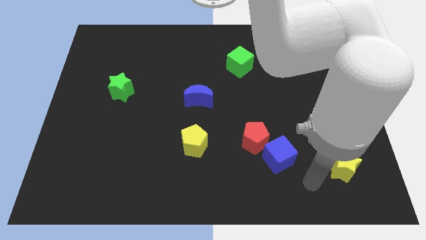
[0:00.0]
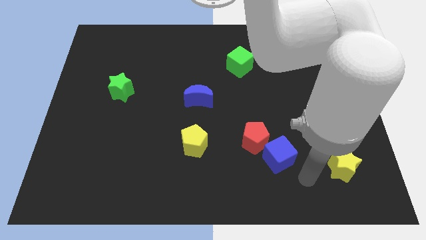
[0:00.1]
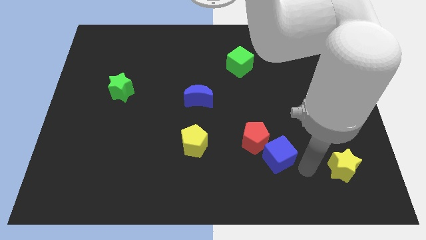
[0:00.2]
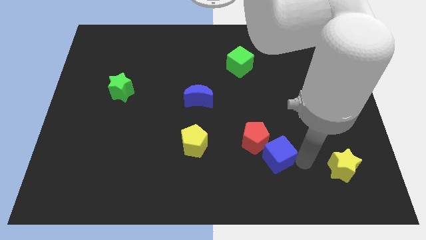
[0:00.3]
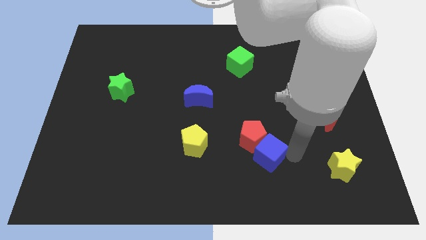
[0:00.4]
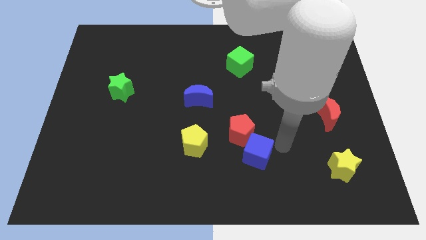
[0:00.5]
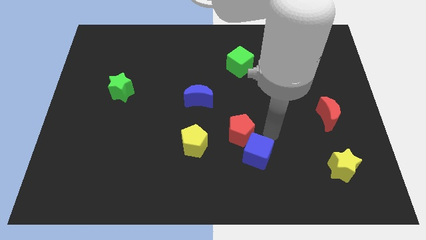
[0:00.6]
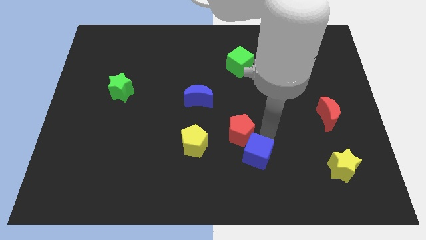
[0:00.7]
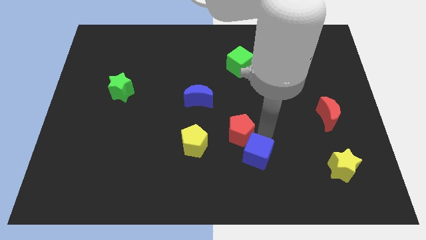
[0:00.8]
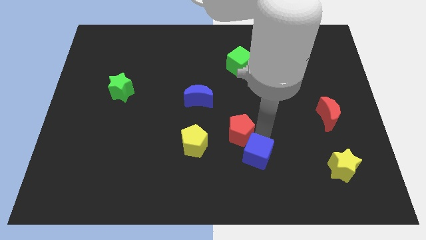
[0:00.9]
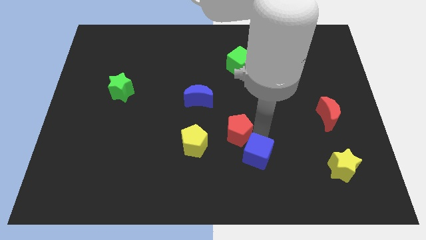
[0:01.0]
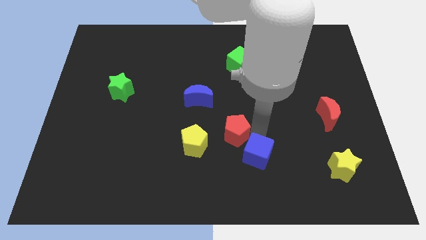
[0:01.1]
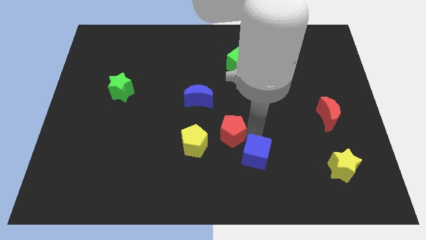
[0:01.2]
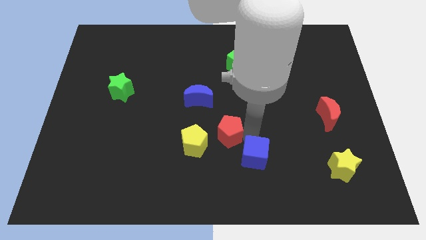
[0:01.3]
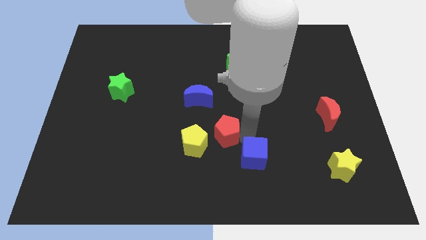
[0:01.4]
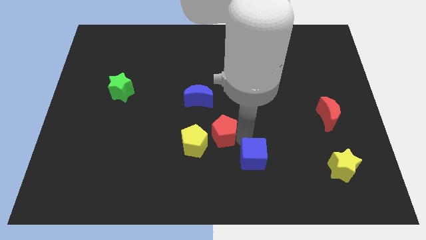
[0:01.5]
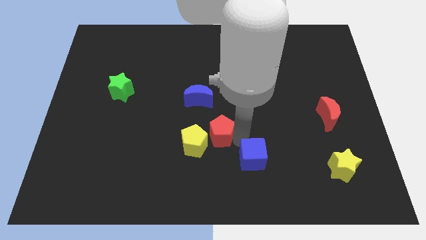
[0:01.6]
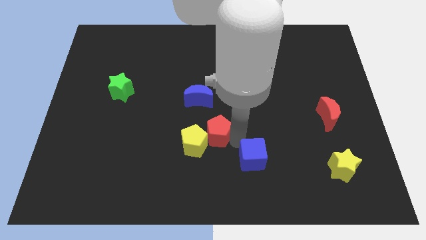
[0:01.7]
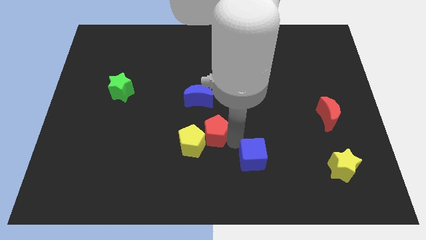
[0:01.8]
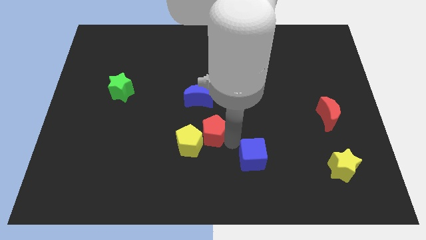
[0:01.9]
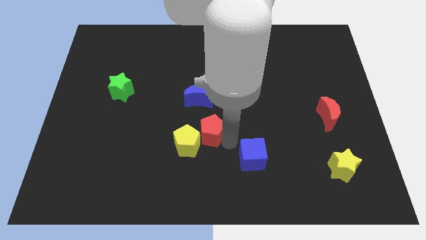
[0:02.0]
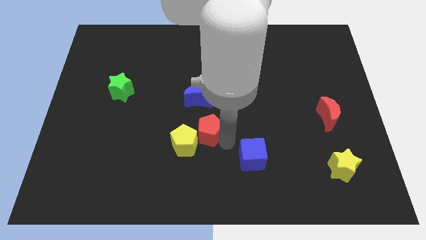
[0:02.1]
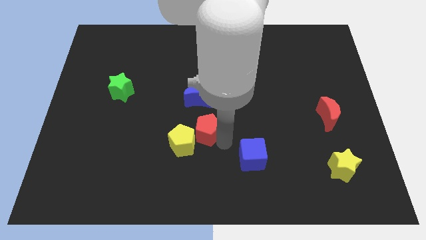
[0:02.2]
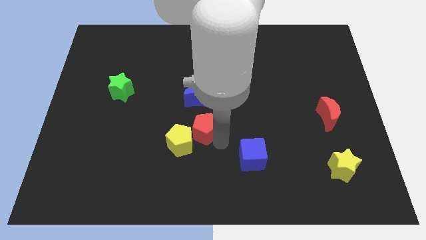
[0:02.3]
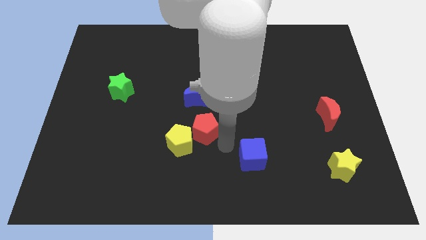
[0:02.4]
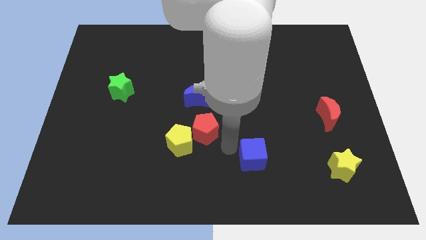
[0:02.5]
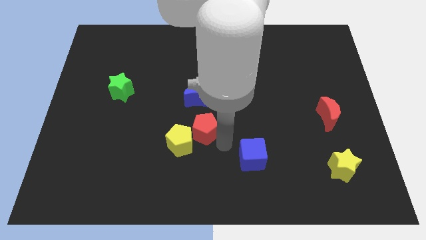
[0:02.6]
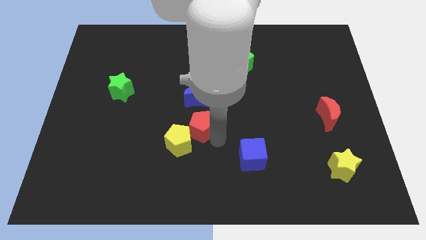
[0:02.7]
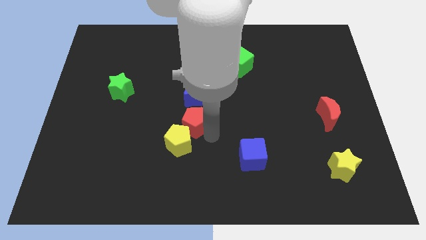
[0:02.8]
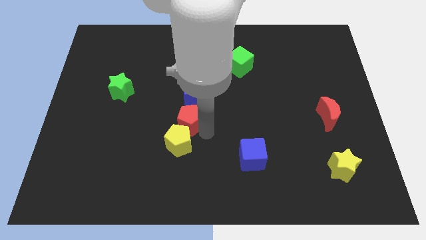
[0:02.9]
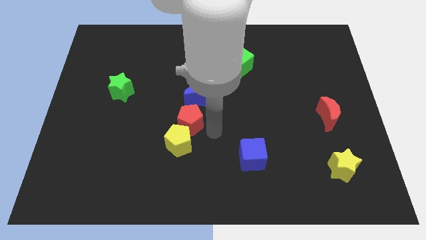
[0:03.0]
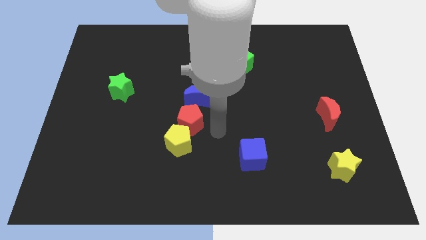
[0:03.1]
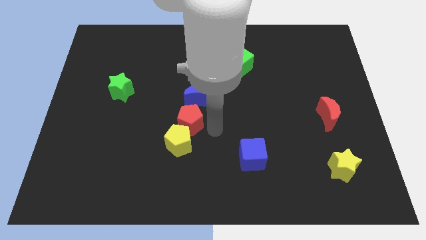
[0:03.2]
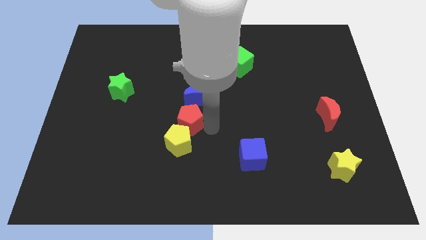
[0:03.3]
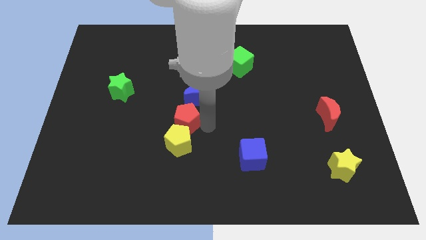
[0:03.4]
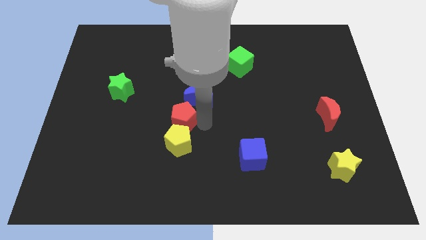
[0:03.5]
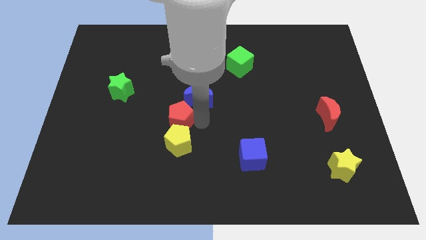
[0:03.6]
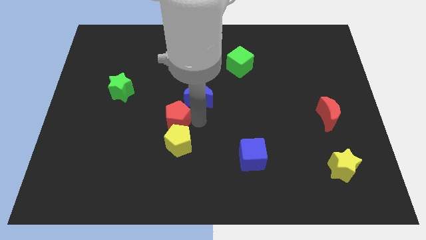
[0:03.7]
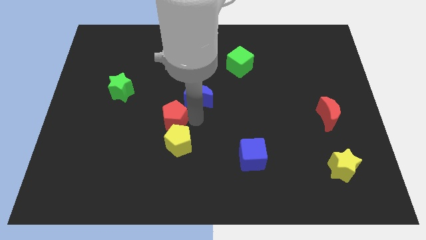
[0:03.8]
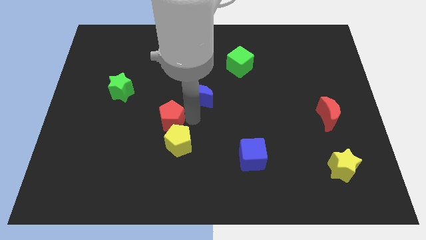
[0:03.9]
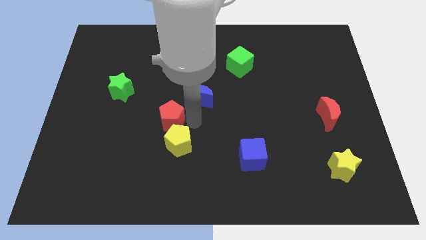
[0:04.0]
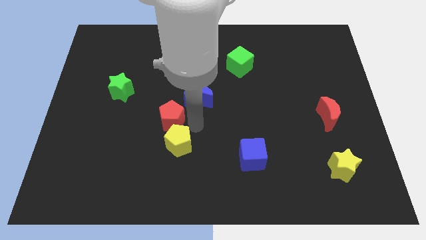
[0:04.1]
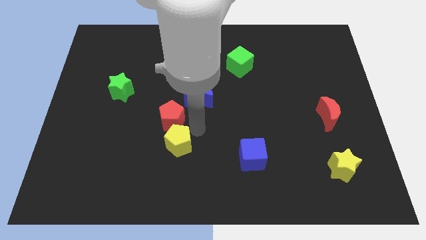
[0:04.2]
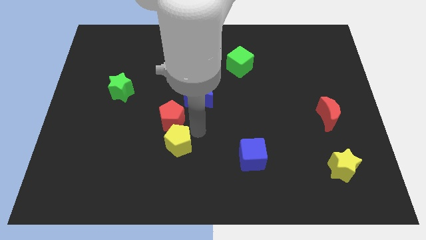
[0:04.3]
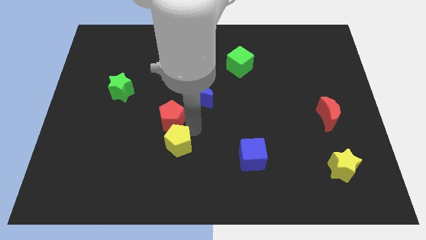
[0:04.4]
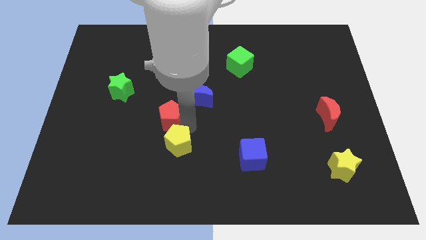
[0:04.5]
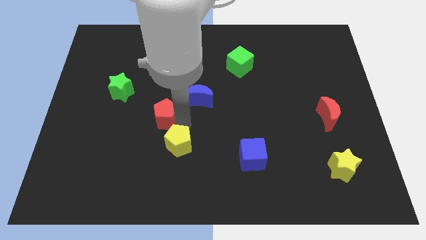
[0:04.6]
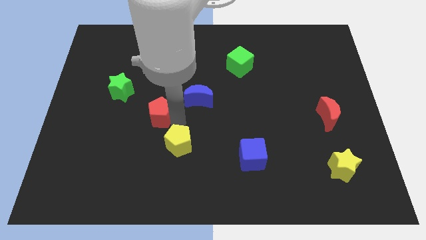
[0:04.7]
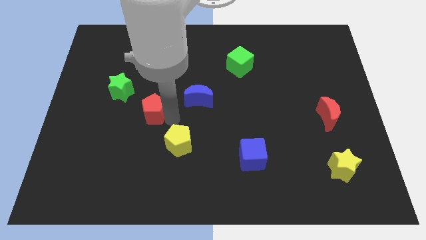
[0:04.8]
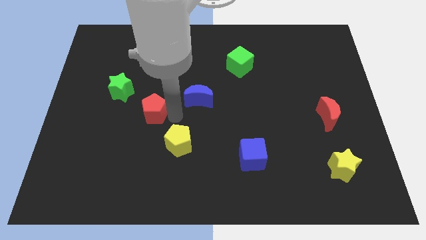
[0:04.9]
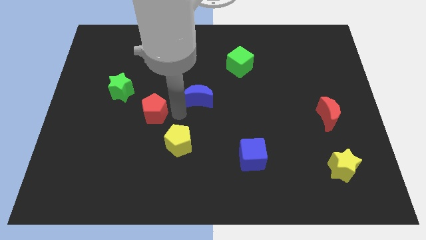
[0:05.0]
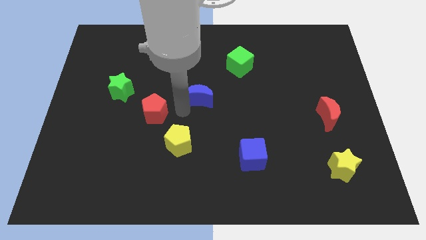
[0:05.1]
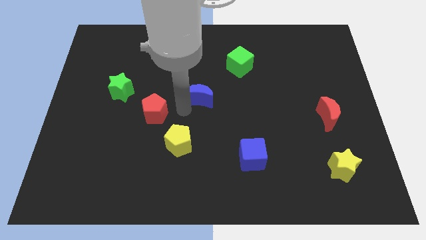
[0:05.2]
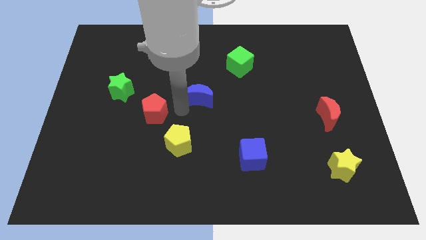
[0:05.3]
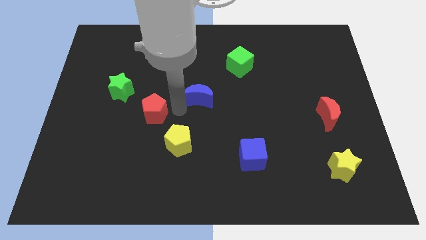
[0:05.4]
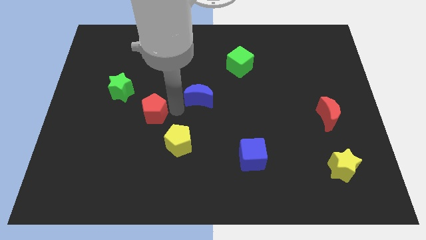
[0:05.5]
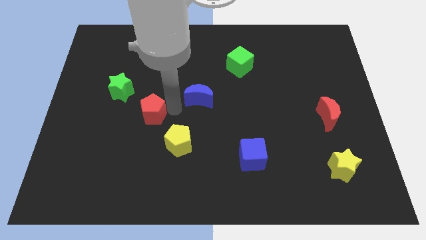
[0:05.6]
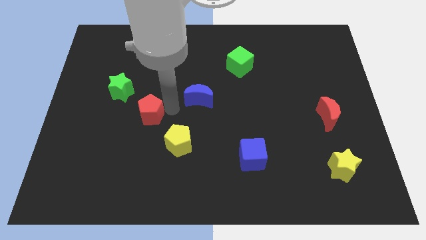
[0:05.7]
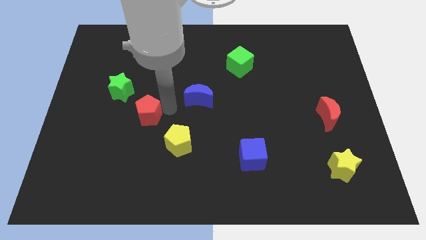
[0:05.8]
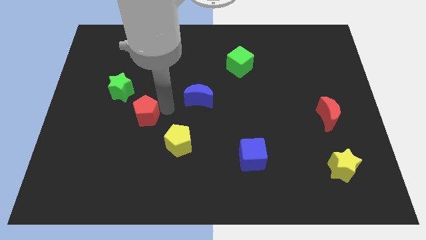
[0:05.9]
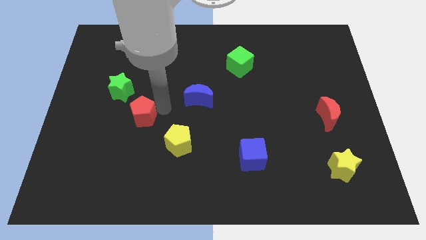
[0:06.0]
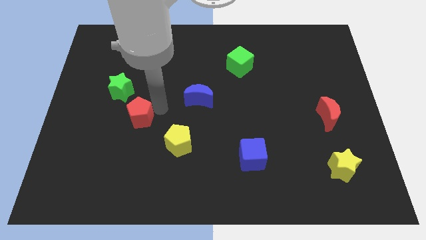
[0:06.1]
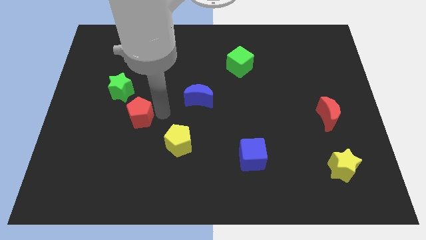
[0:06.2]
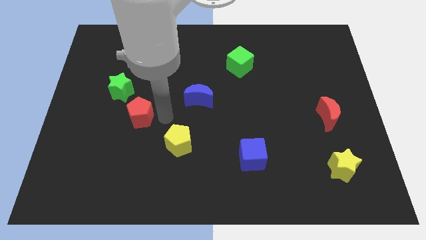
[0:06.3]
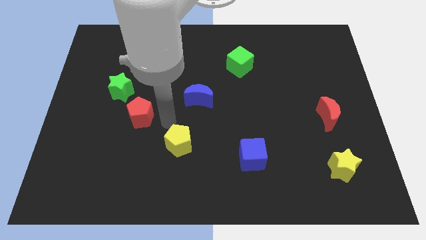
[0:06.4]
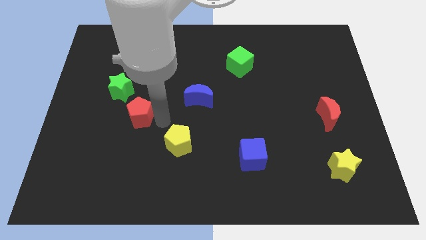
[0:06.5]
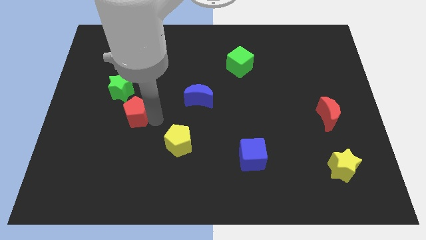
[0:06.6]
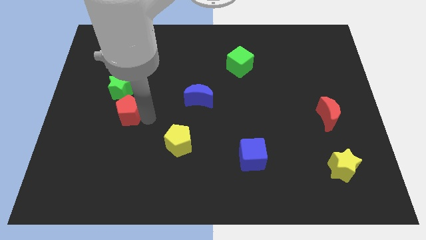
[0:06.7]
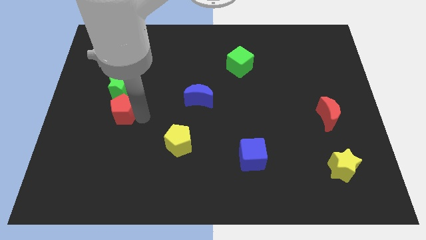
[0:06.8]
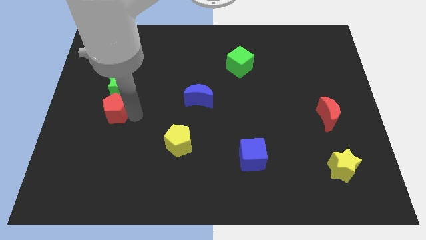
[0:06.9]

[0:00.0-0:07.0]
put the red pentagon to the bottom left of the green star
